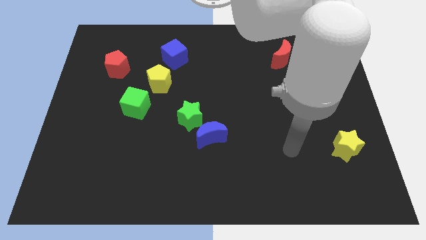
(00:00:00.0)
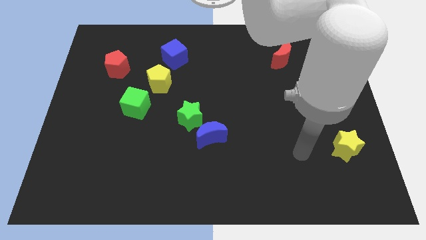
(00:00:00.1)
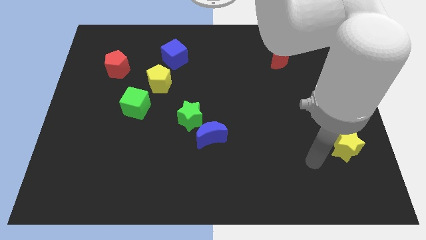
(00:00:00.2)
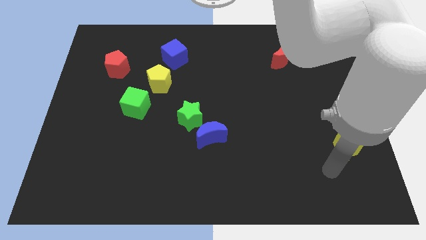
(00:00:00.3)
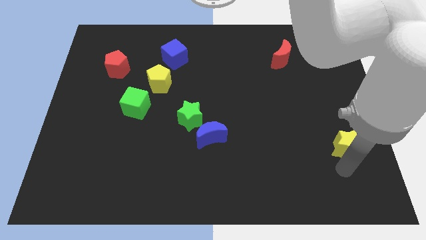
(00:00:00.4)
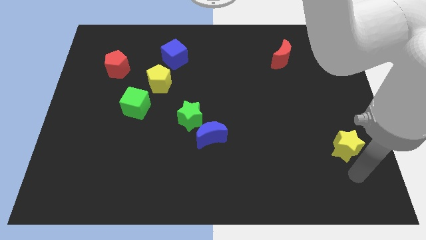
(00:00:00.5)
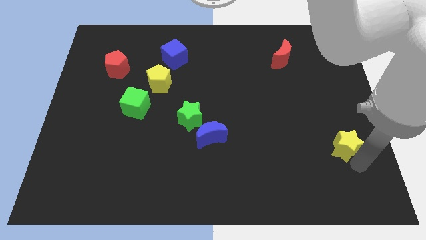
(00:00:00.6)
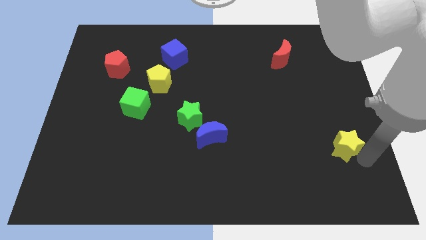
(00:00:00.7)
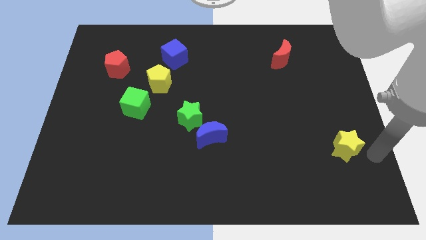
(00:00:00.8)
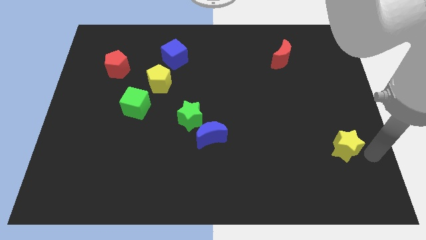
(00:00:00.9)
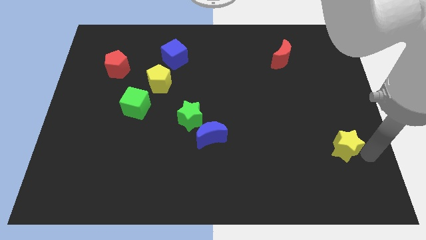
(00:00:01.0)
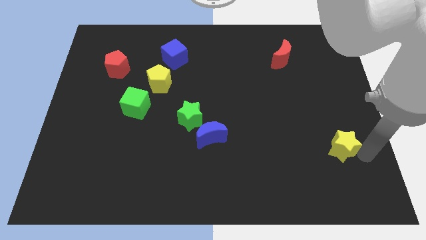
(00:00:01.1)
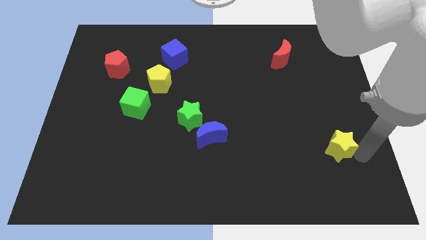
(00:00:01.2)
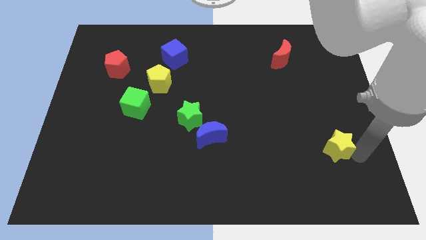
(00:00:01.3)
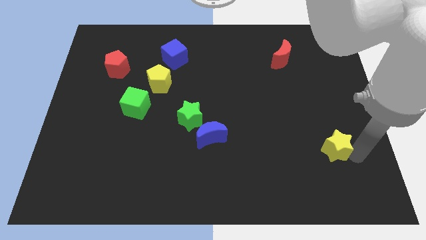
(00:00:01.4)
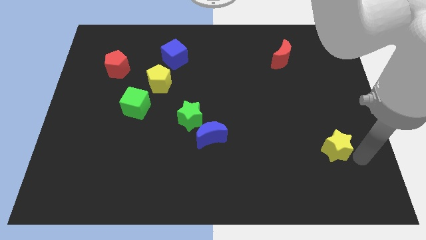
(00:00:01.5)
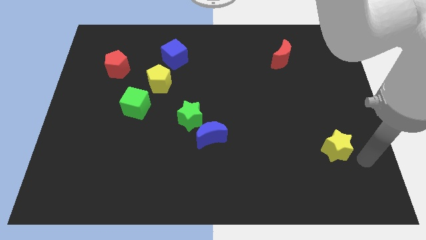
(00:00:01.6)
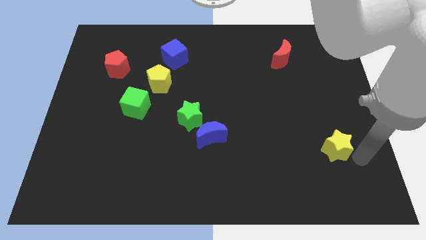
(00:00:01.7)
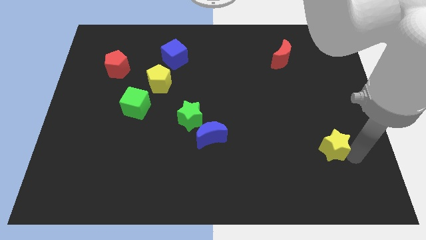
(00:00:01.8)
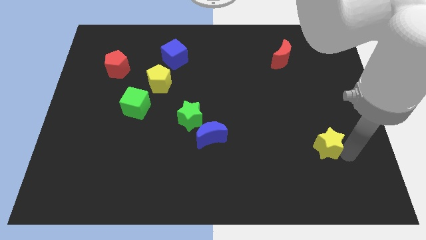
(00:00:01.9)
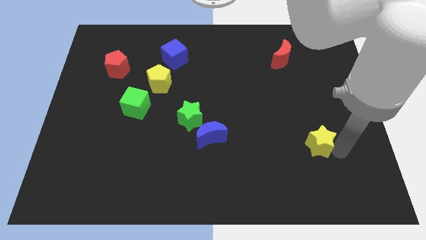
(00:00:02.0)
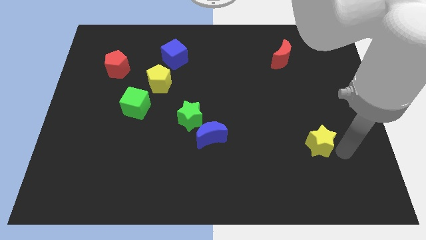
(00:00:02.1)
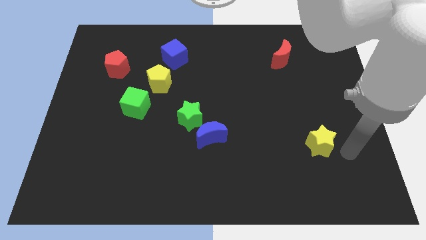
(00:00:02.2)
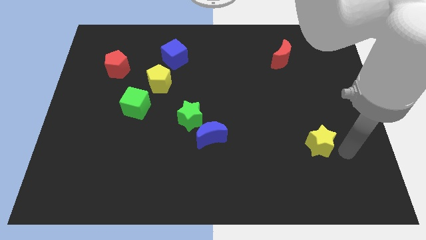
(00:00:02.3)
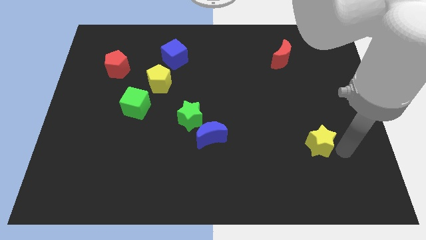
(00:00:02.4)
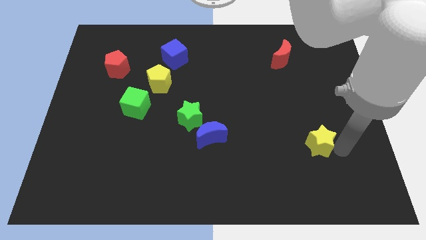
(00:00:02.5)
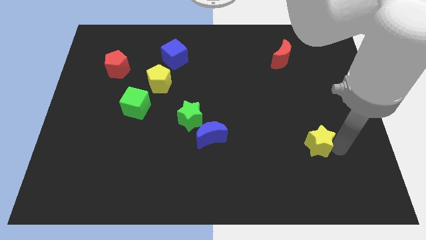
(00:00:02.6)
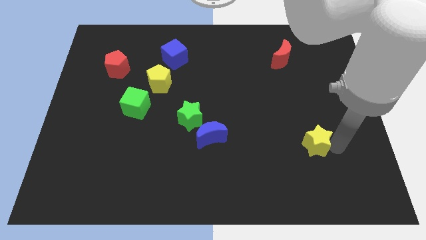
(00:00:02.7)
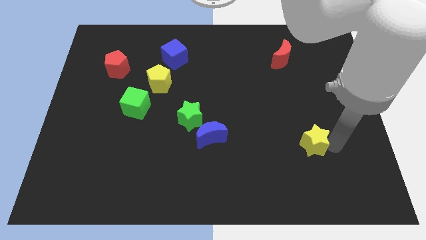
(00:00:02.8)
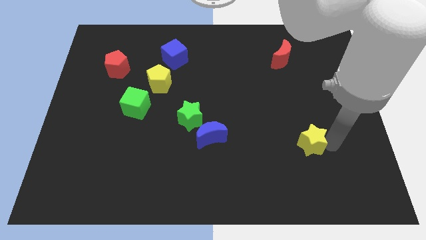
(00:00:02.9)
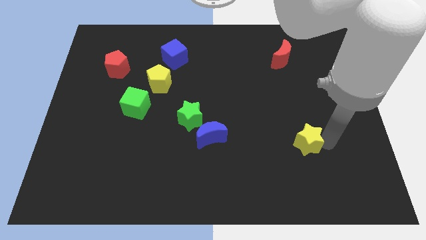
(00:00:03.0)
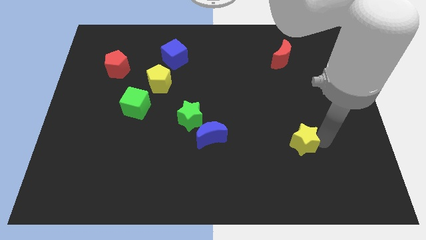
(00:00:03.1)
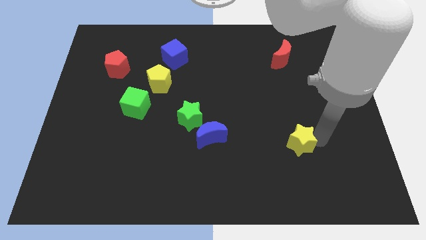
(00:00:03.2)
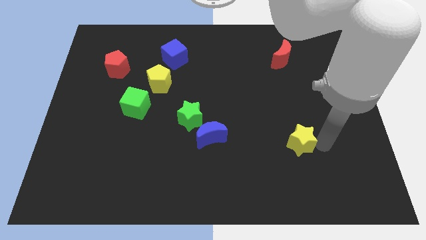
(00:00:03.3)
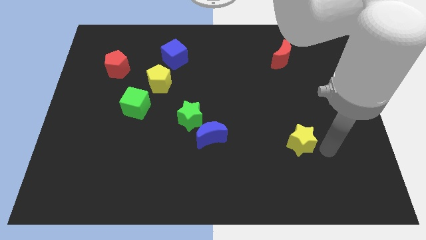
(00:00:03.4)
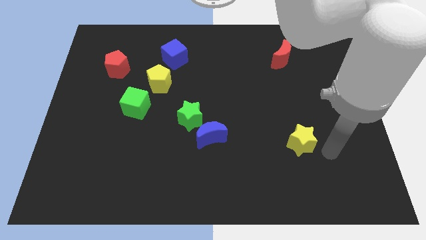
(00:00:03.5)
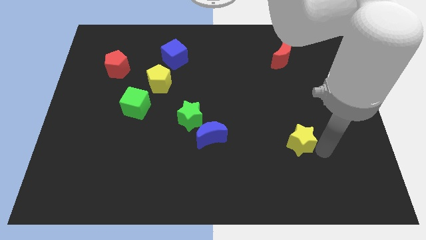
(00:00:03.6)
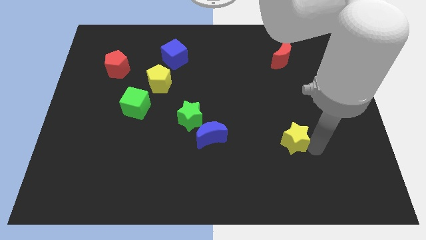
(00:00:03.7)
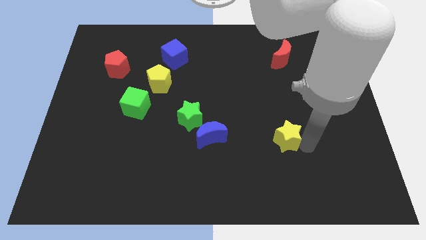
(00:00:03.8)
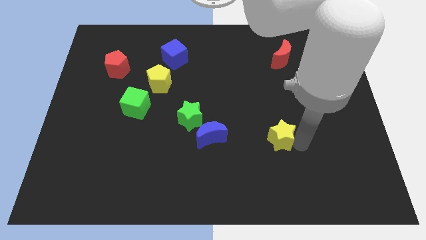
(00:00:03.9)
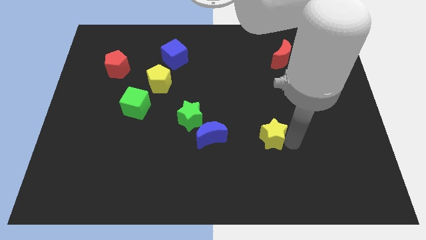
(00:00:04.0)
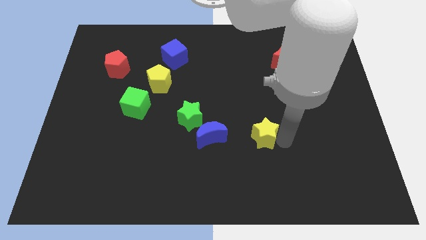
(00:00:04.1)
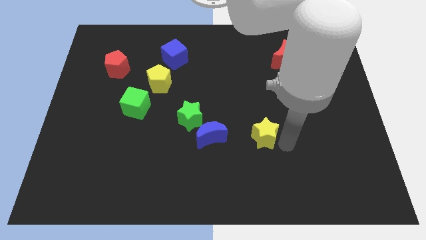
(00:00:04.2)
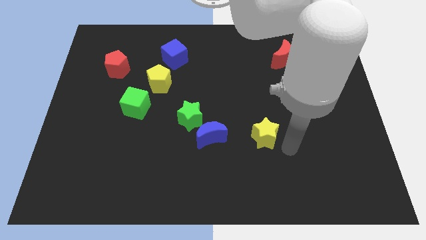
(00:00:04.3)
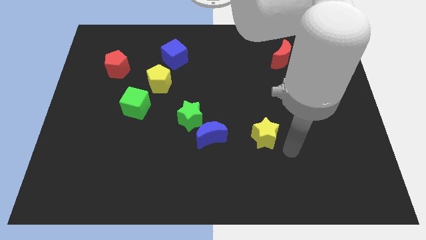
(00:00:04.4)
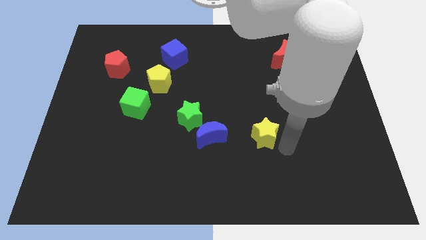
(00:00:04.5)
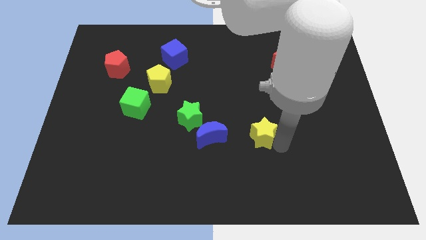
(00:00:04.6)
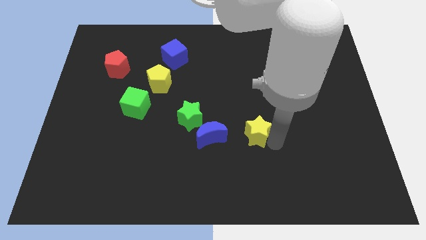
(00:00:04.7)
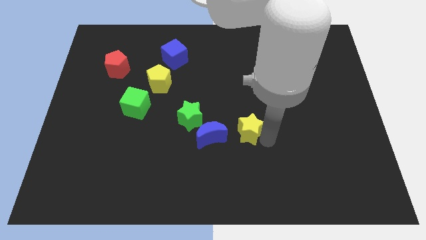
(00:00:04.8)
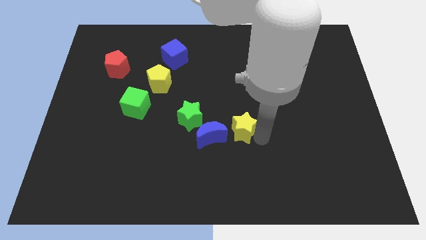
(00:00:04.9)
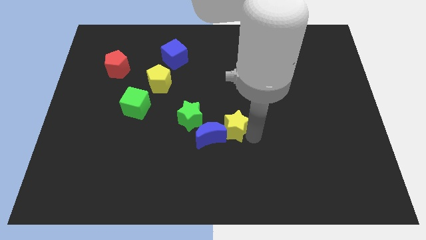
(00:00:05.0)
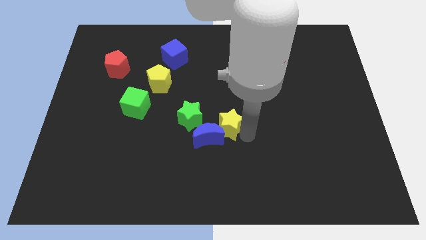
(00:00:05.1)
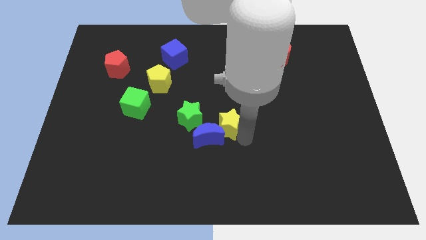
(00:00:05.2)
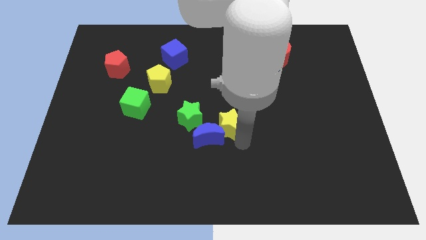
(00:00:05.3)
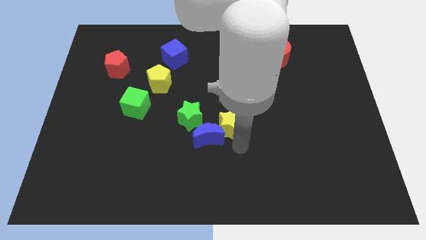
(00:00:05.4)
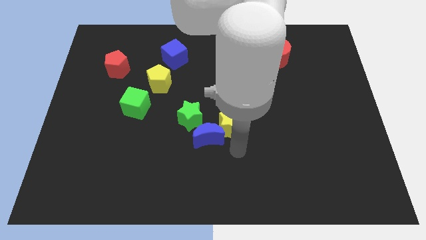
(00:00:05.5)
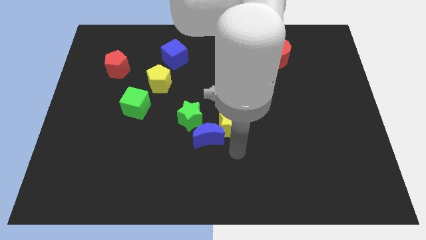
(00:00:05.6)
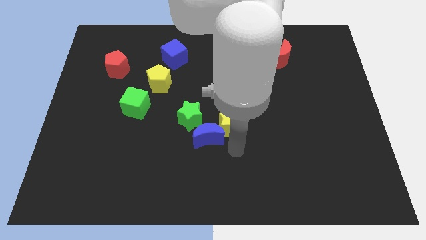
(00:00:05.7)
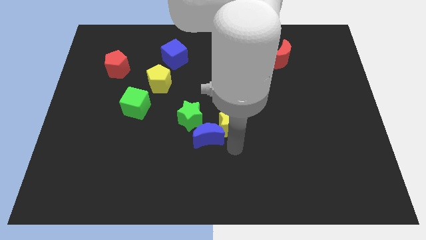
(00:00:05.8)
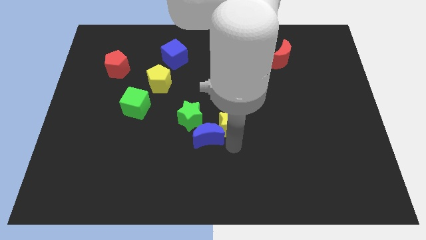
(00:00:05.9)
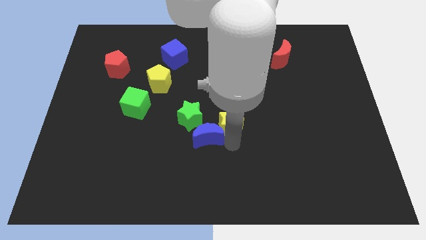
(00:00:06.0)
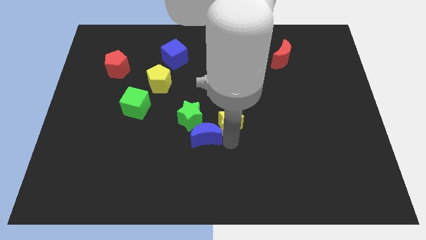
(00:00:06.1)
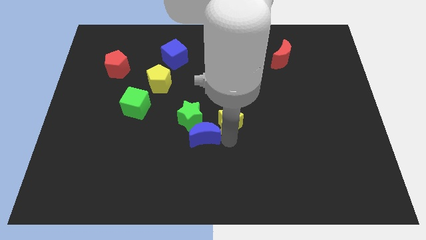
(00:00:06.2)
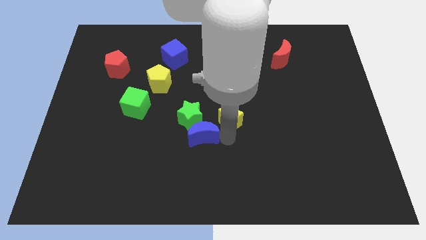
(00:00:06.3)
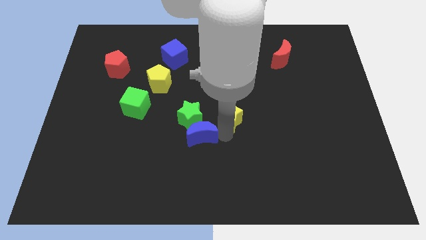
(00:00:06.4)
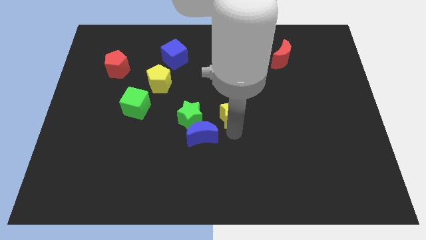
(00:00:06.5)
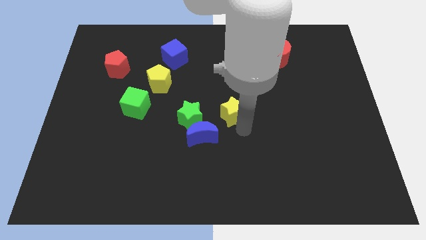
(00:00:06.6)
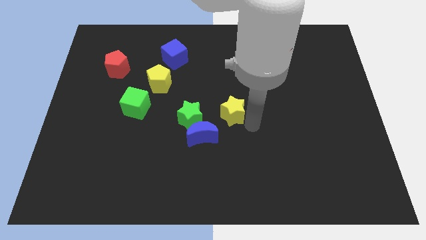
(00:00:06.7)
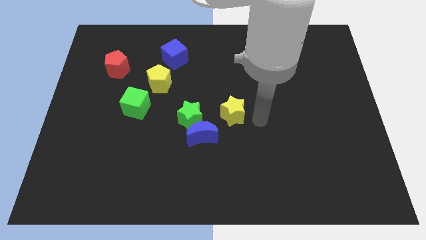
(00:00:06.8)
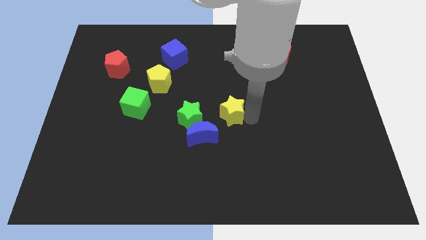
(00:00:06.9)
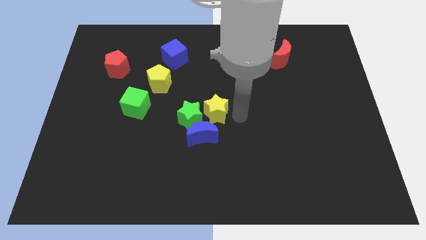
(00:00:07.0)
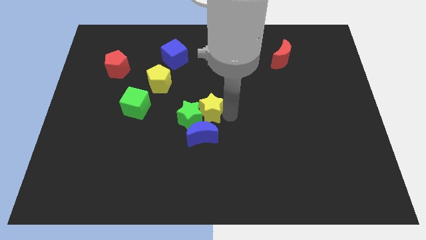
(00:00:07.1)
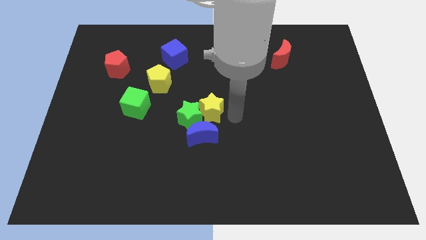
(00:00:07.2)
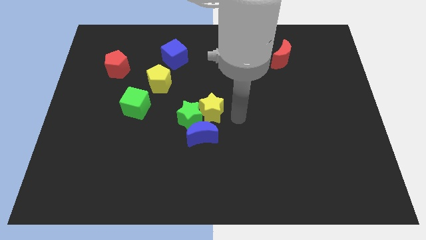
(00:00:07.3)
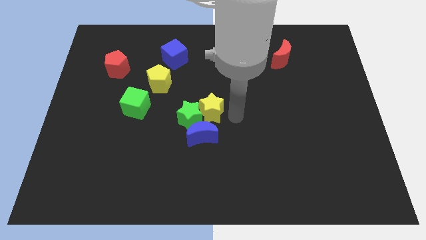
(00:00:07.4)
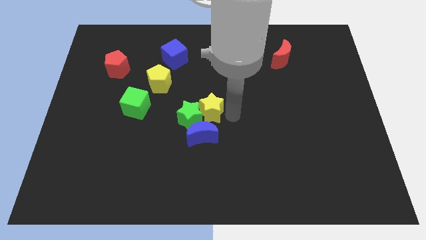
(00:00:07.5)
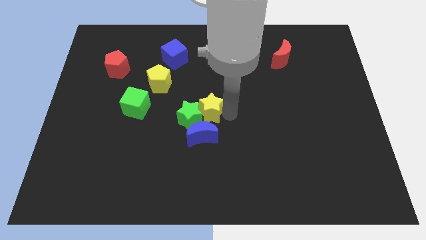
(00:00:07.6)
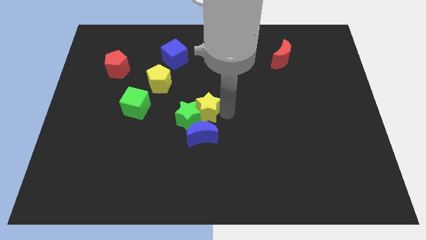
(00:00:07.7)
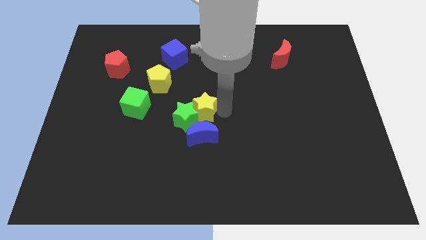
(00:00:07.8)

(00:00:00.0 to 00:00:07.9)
move the yellow star to the right of the green cube
